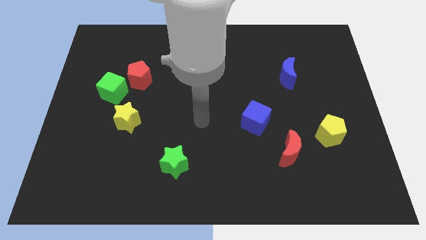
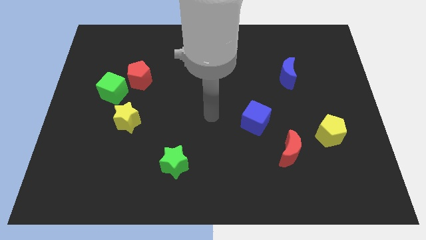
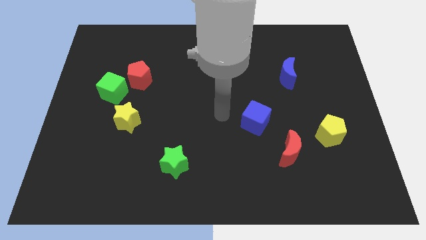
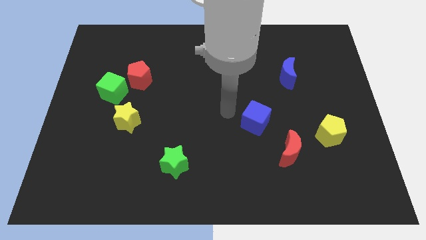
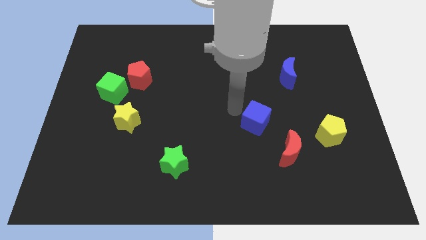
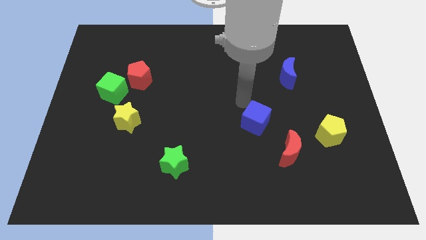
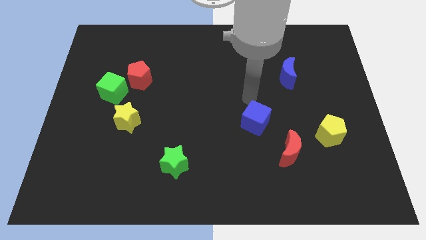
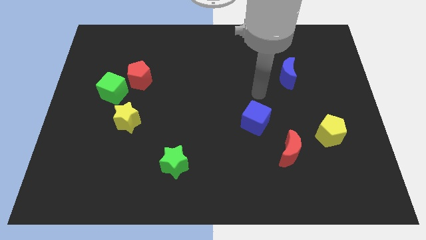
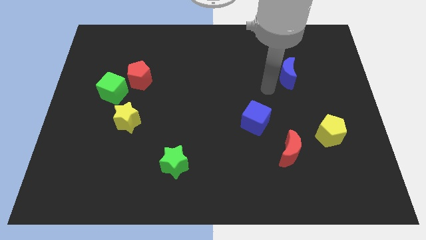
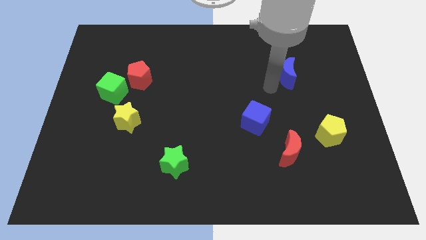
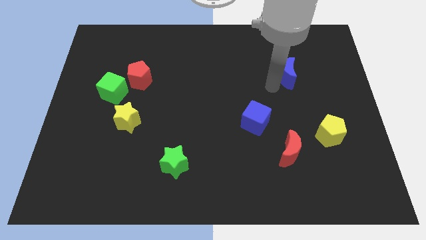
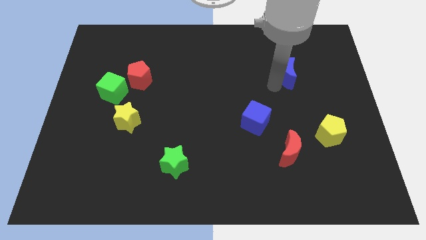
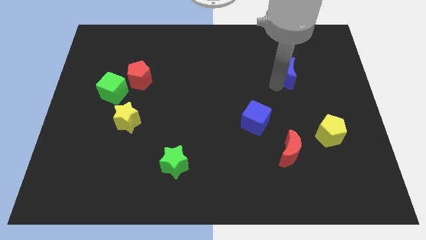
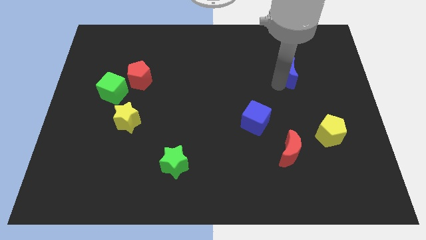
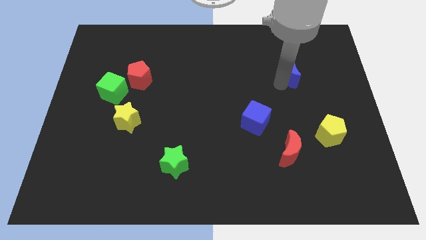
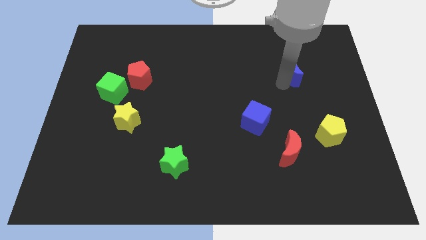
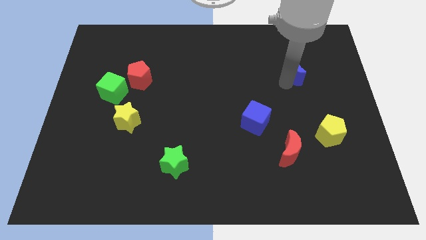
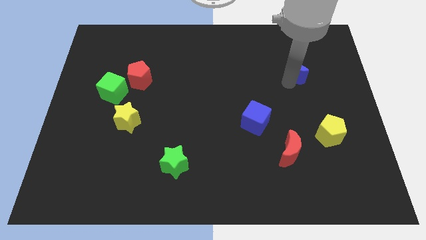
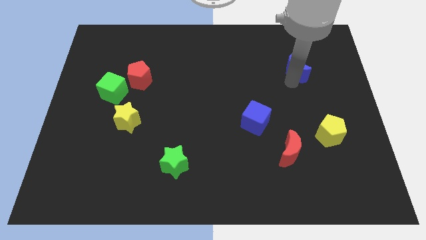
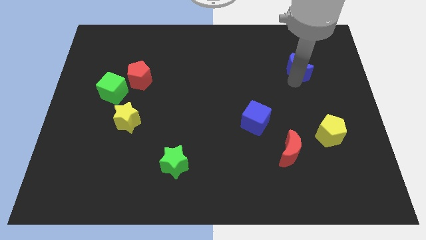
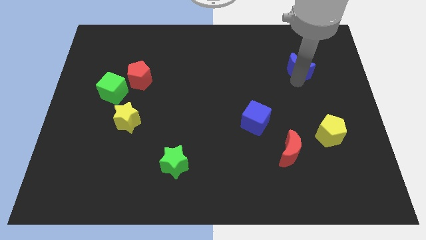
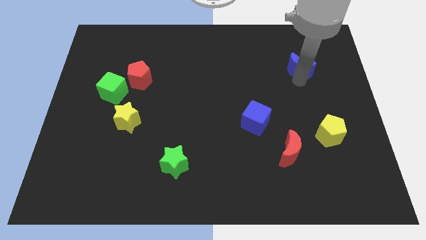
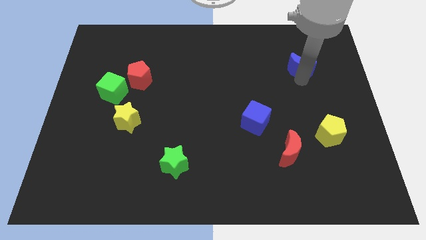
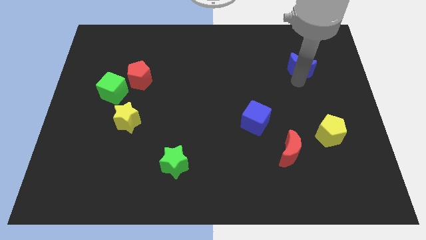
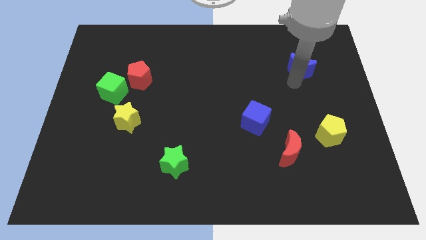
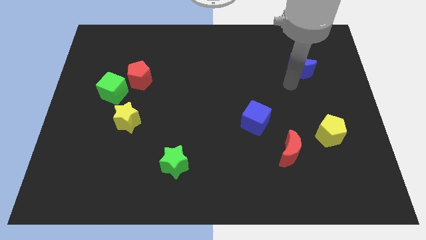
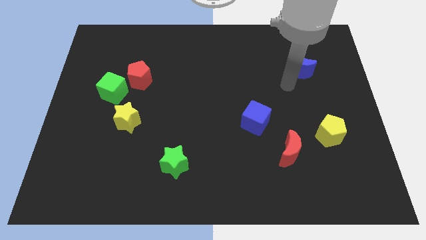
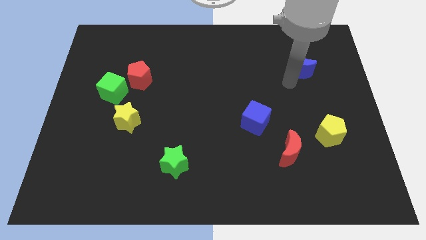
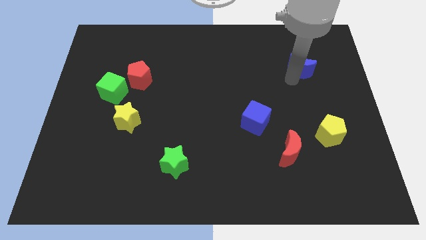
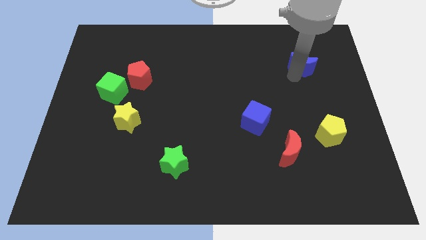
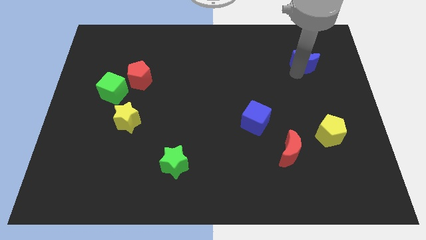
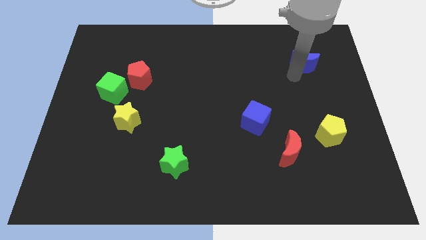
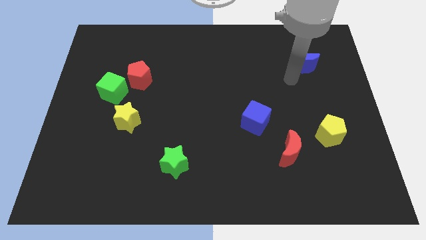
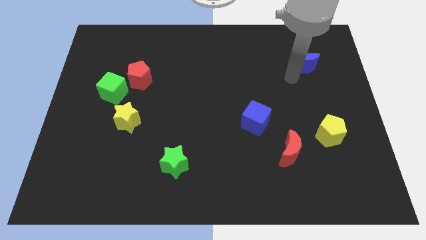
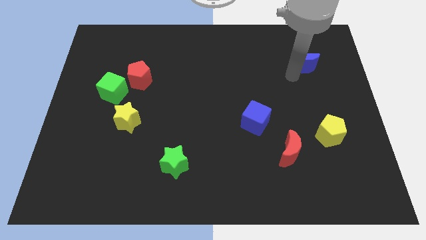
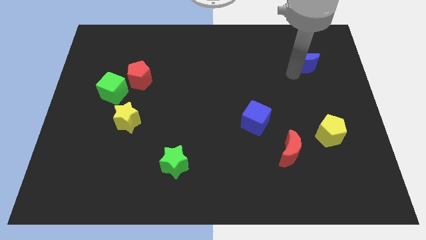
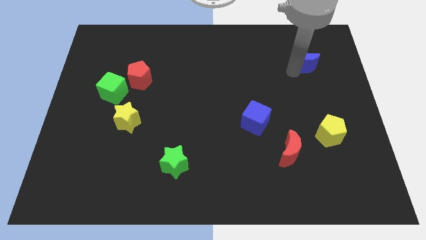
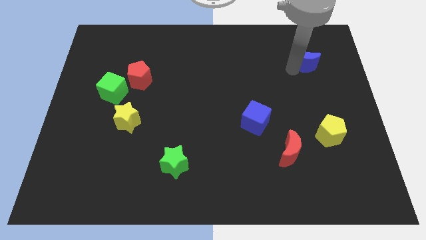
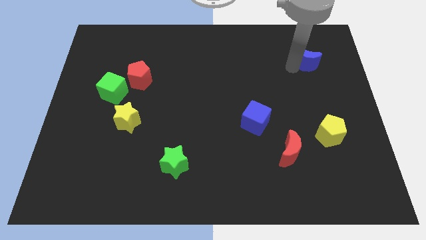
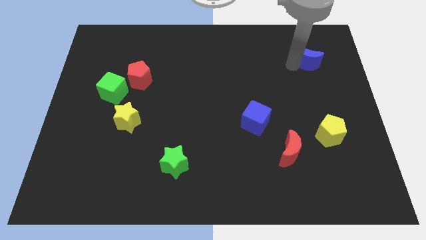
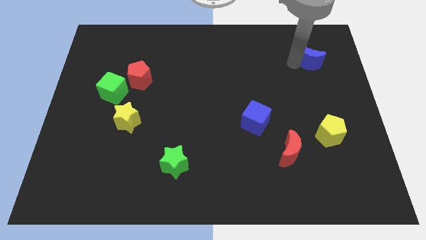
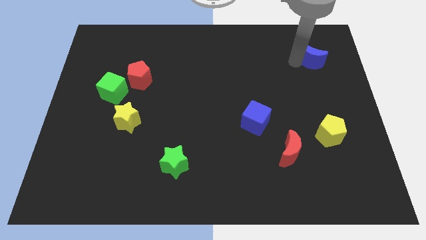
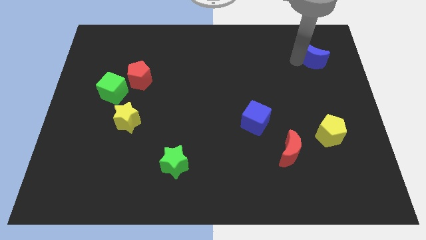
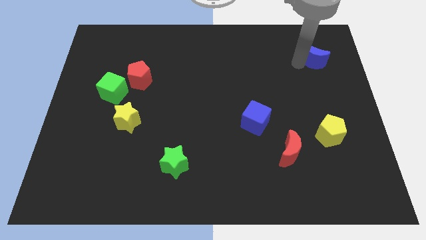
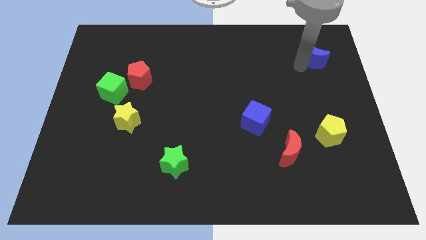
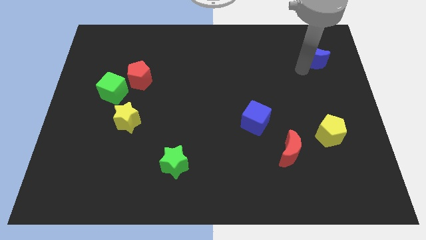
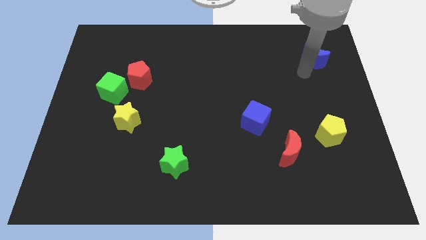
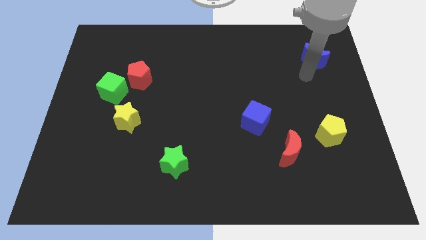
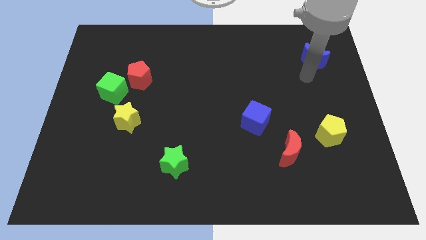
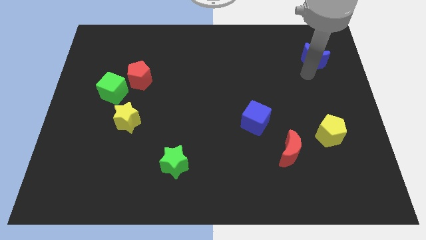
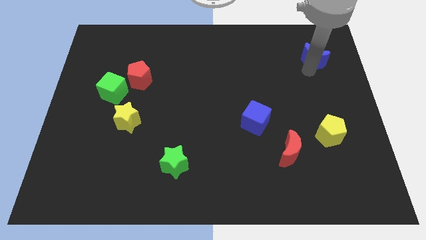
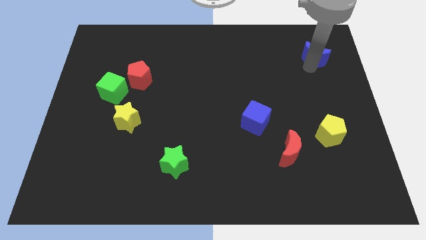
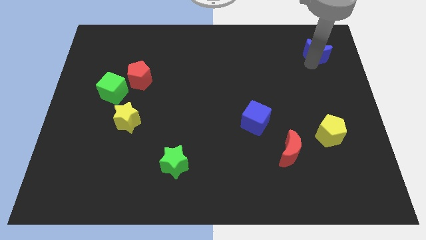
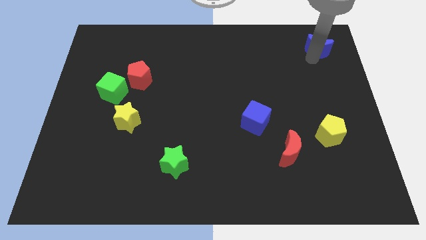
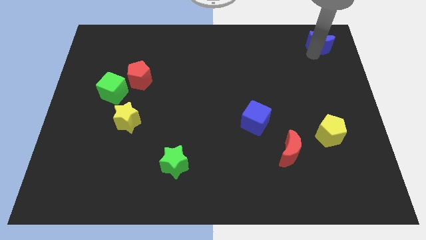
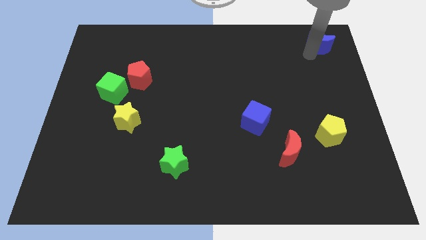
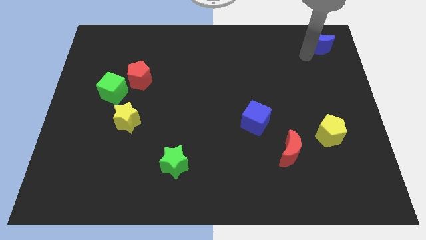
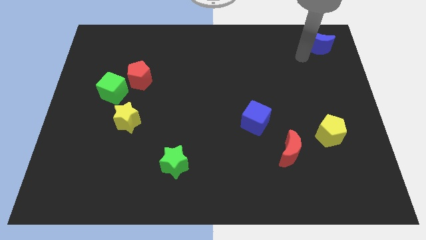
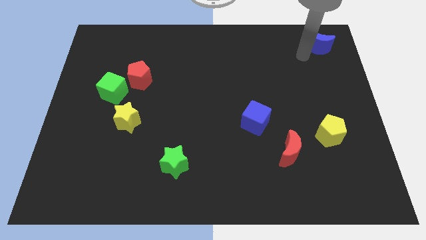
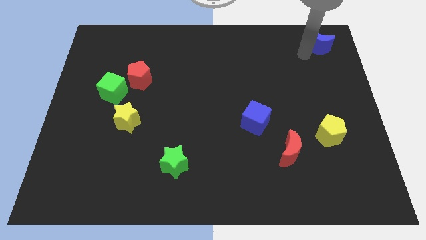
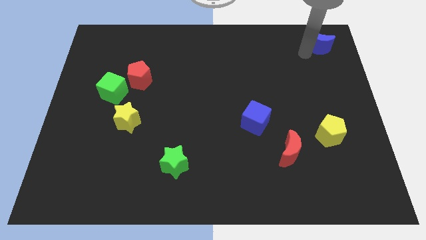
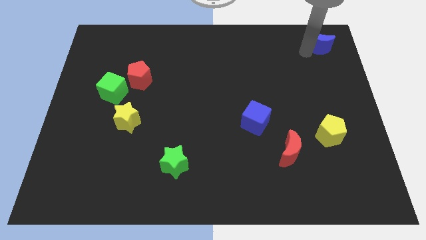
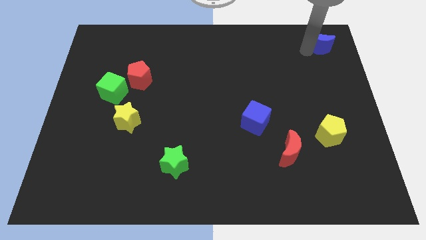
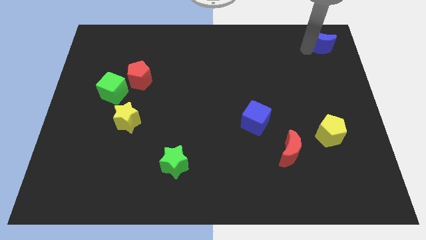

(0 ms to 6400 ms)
push the blue moon to the top right

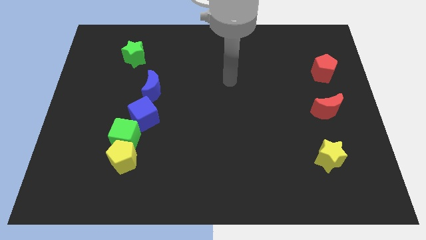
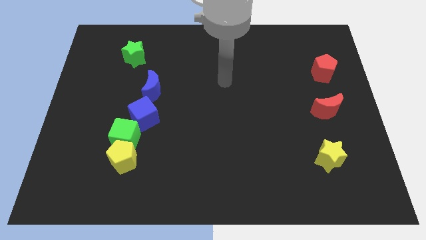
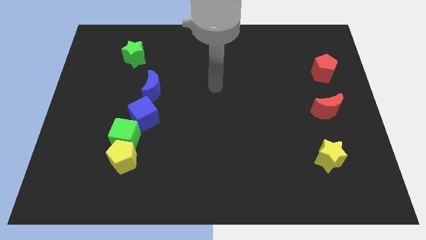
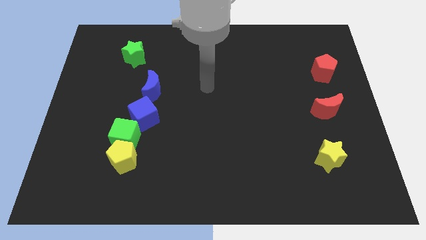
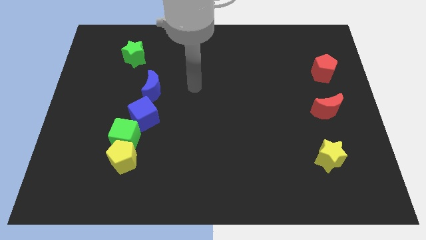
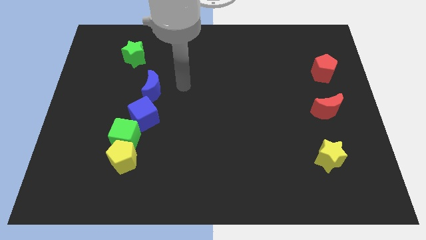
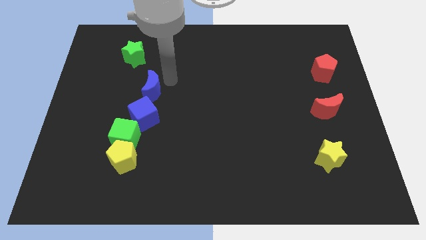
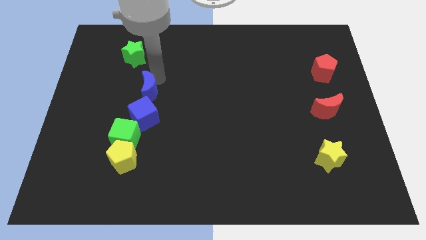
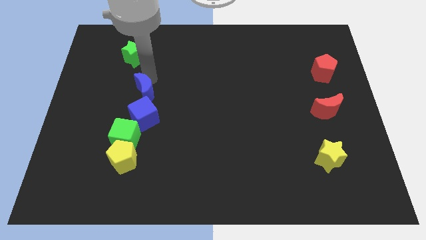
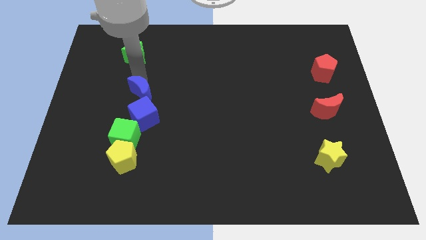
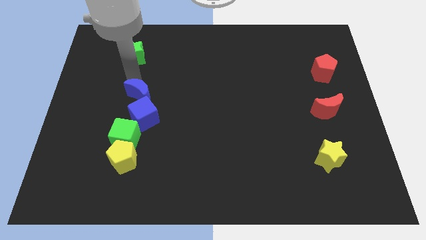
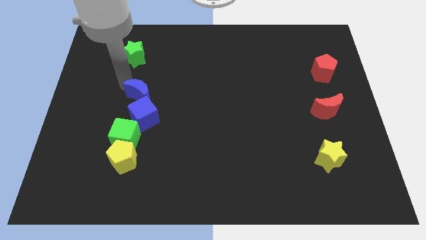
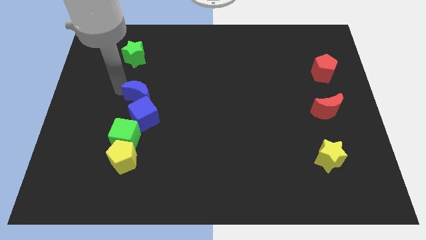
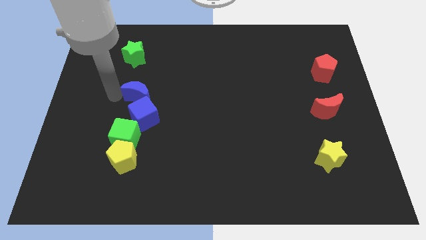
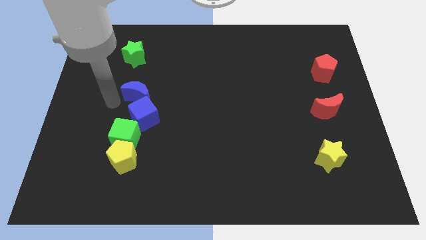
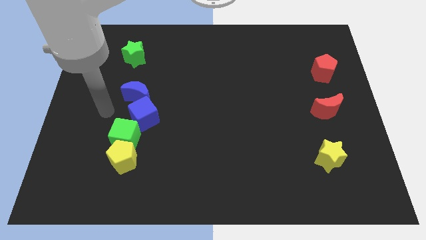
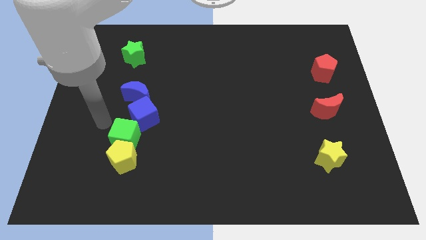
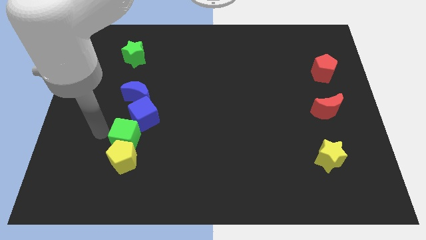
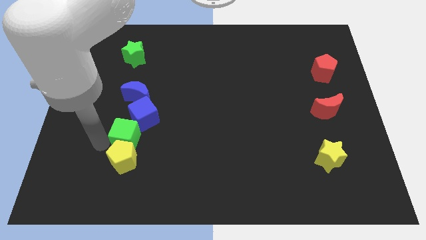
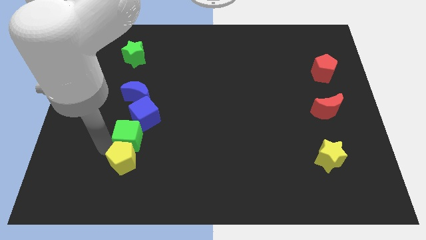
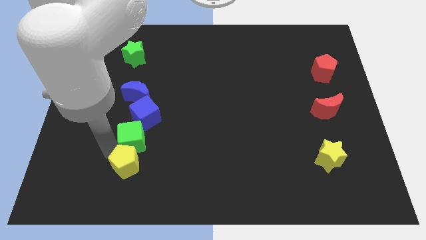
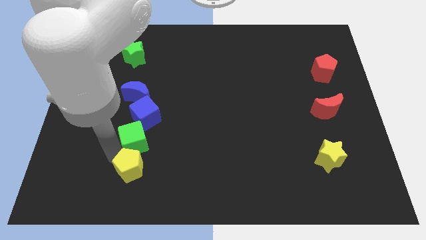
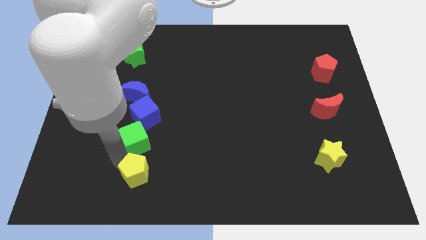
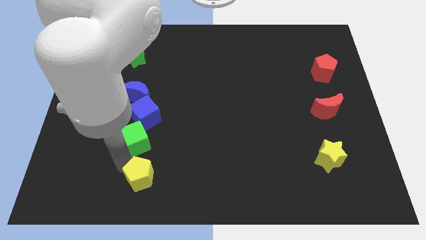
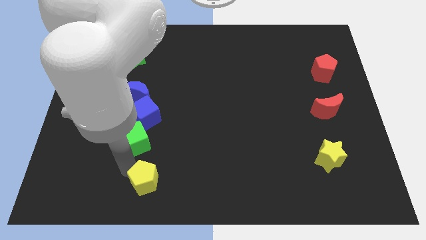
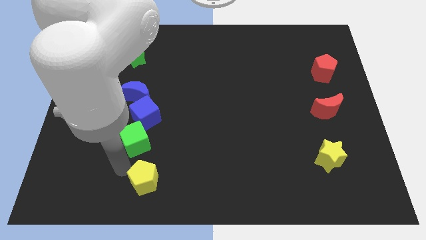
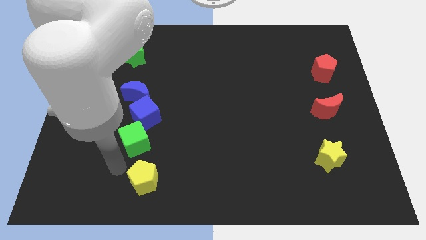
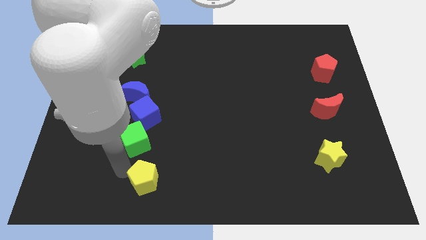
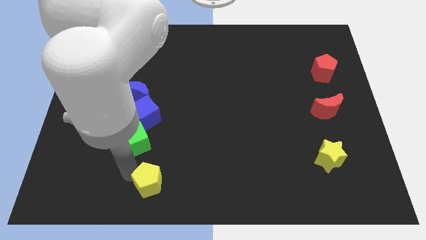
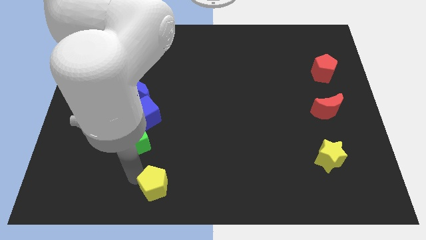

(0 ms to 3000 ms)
push the yellow pentagon to the bottom
